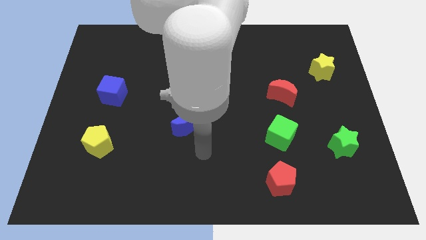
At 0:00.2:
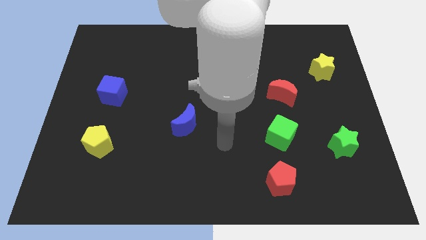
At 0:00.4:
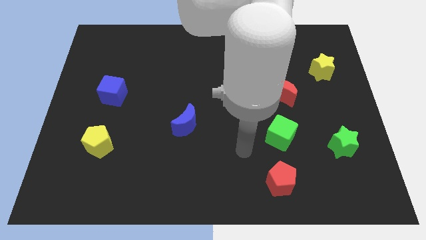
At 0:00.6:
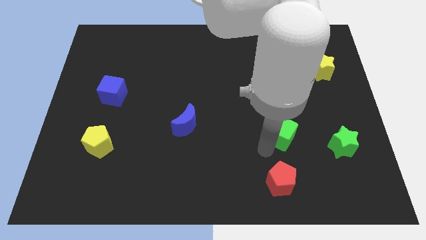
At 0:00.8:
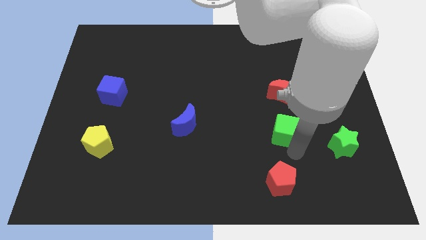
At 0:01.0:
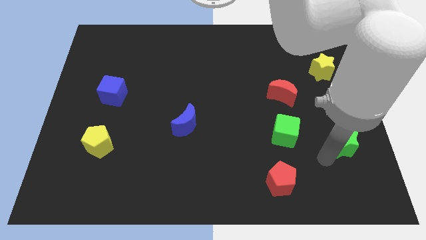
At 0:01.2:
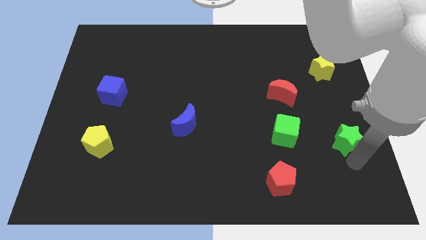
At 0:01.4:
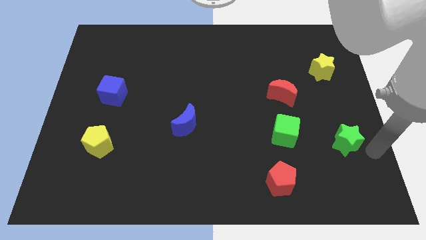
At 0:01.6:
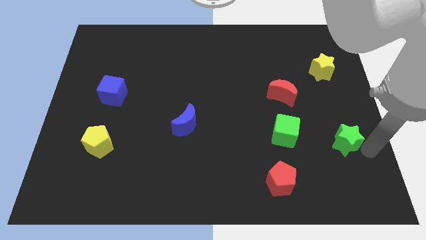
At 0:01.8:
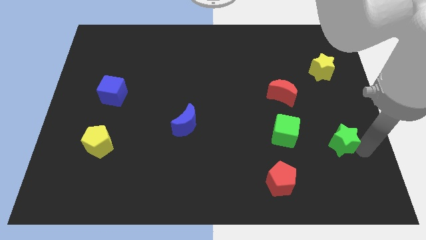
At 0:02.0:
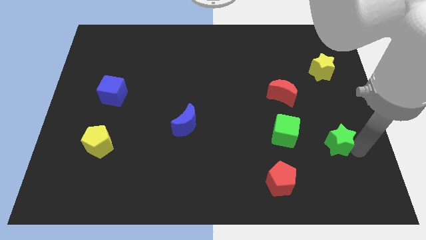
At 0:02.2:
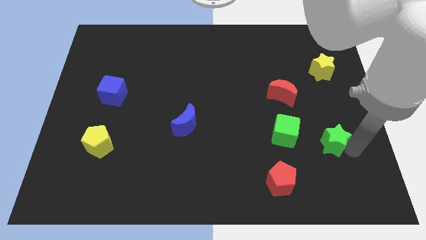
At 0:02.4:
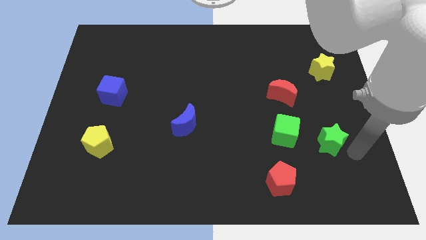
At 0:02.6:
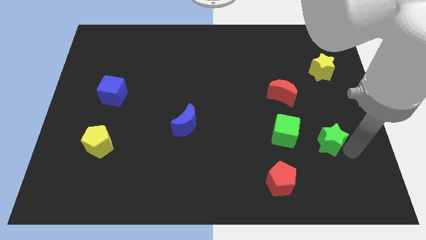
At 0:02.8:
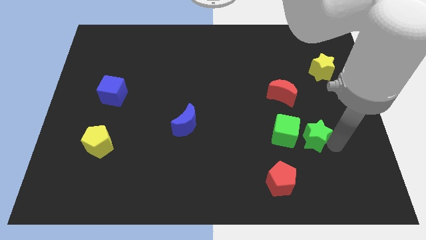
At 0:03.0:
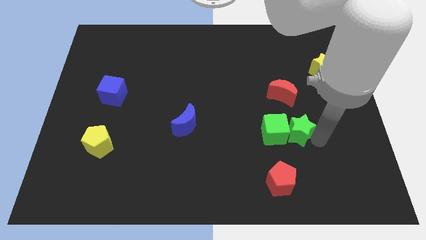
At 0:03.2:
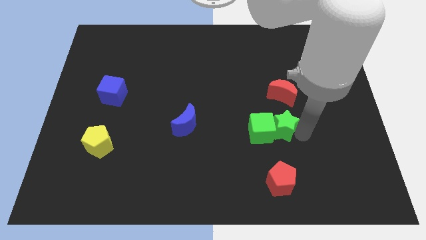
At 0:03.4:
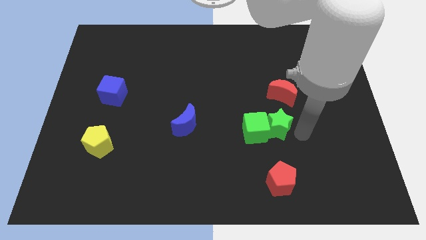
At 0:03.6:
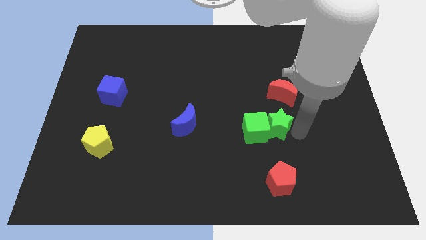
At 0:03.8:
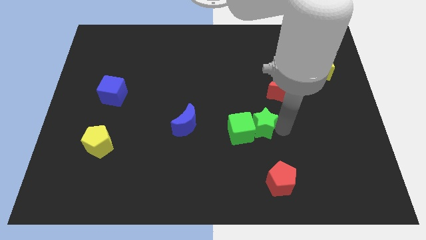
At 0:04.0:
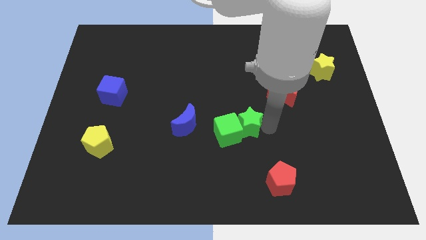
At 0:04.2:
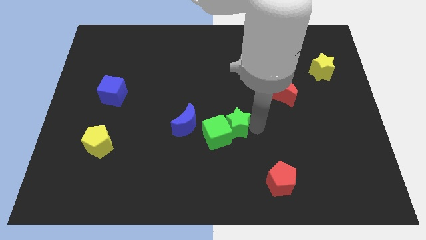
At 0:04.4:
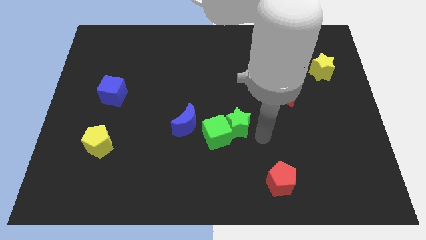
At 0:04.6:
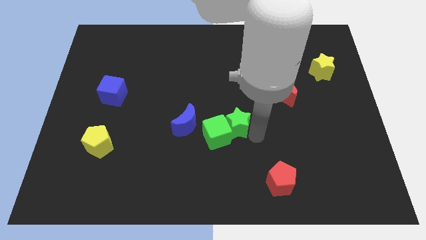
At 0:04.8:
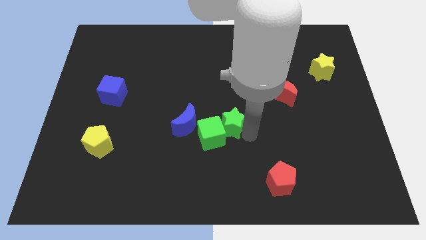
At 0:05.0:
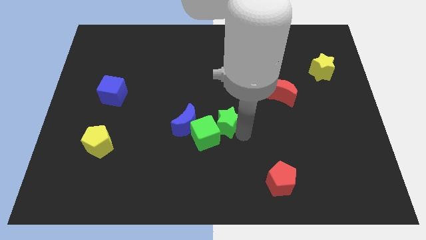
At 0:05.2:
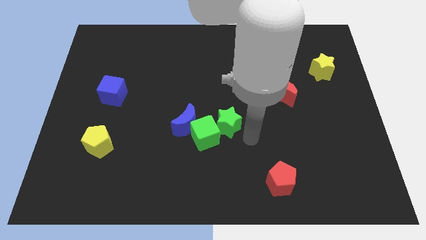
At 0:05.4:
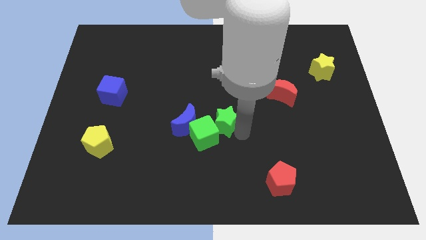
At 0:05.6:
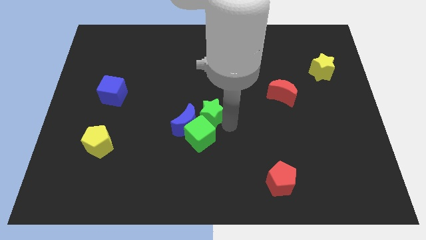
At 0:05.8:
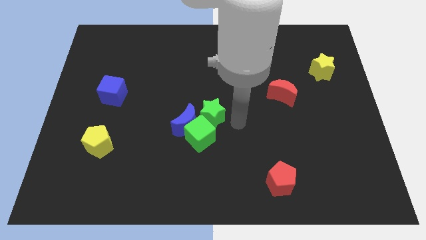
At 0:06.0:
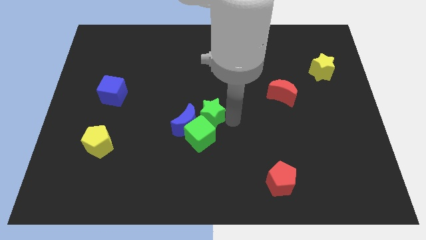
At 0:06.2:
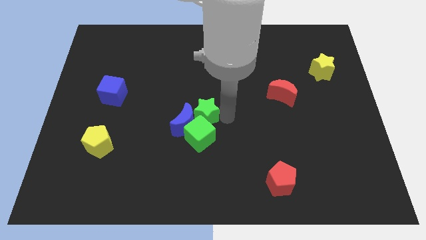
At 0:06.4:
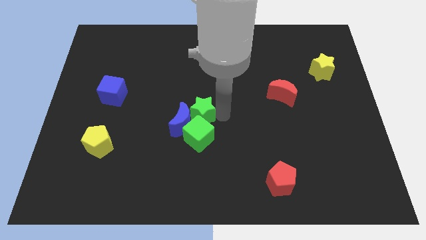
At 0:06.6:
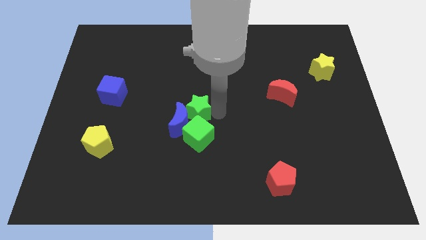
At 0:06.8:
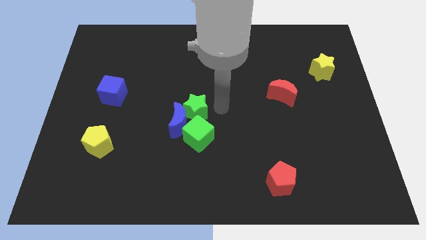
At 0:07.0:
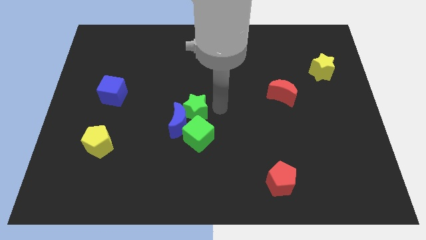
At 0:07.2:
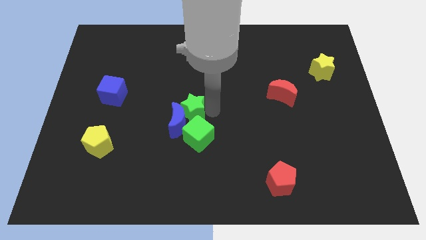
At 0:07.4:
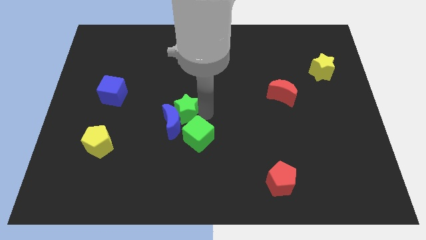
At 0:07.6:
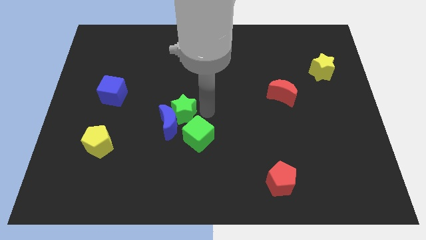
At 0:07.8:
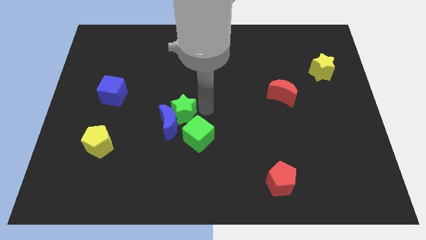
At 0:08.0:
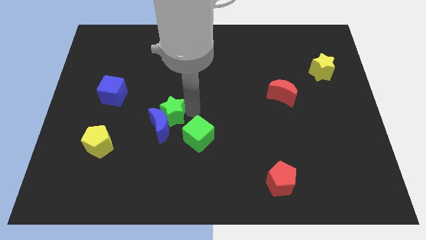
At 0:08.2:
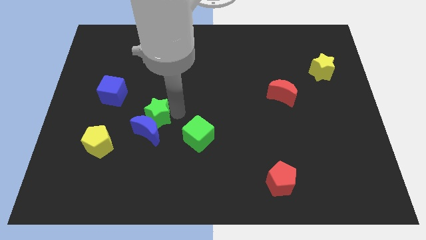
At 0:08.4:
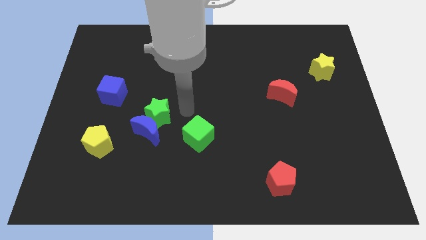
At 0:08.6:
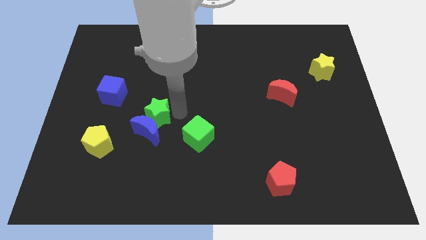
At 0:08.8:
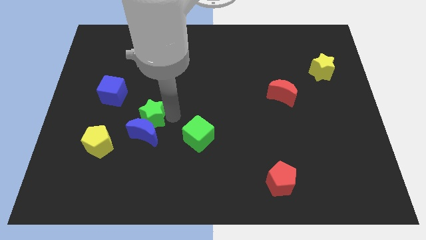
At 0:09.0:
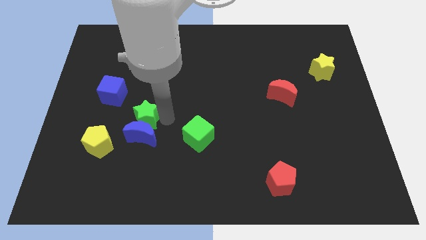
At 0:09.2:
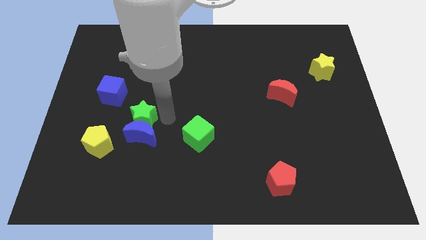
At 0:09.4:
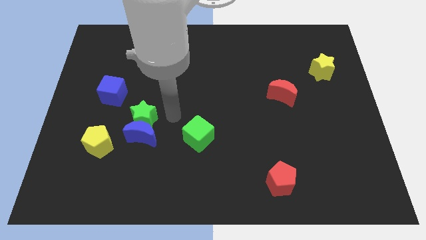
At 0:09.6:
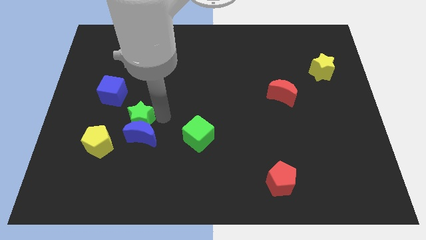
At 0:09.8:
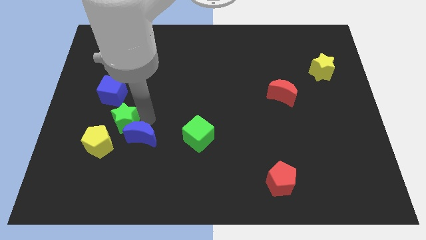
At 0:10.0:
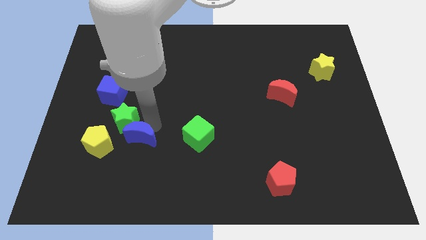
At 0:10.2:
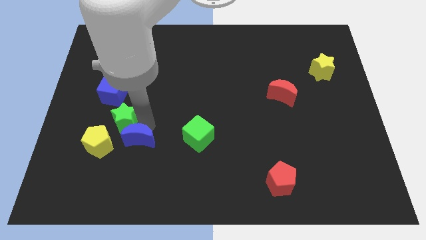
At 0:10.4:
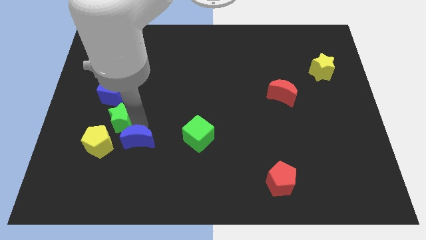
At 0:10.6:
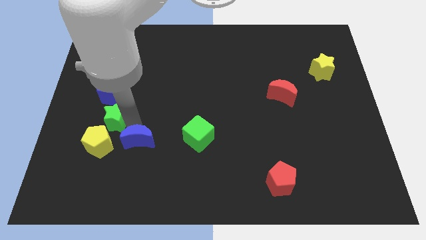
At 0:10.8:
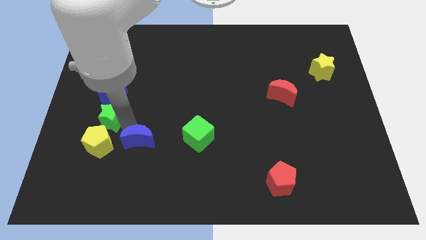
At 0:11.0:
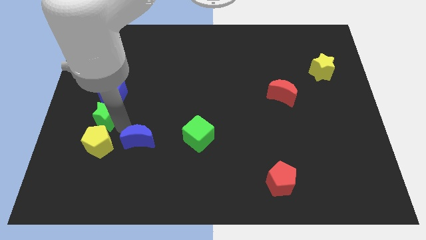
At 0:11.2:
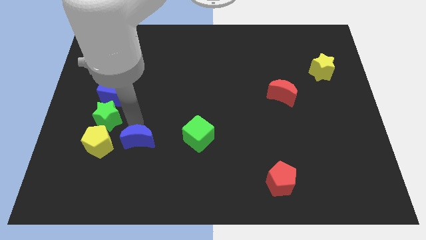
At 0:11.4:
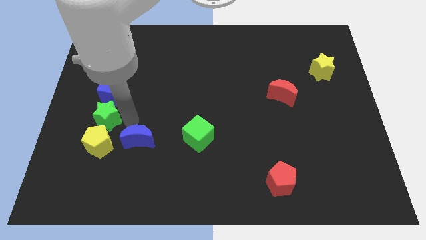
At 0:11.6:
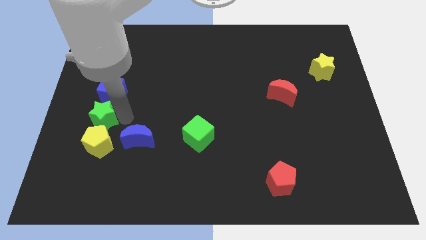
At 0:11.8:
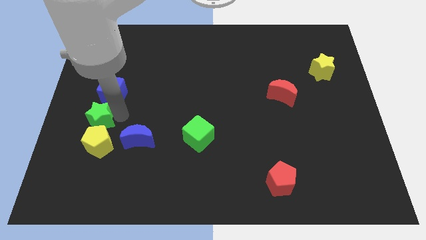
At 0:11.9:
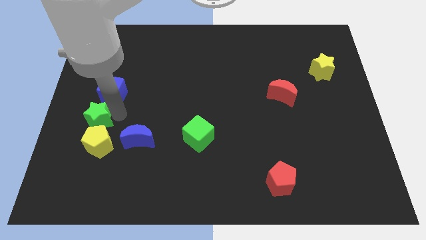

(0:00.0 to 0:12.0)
put the green star to the left side of the board
